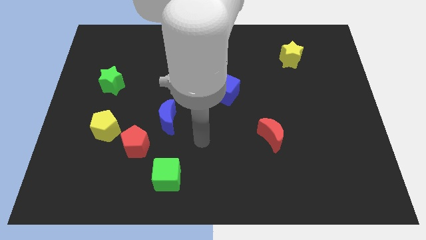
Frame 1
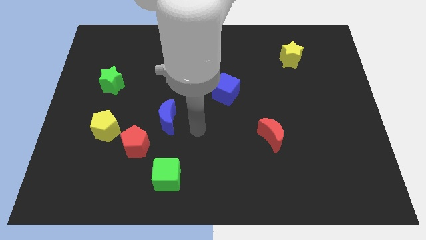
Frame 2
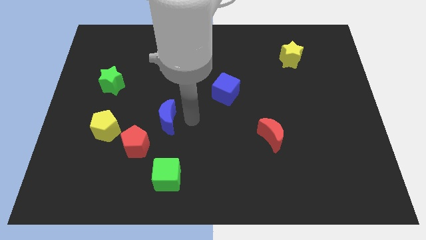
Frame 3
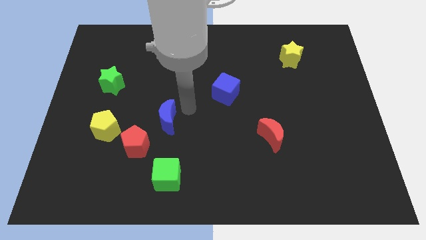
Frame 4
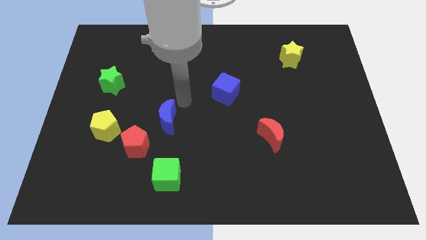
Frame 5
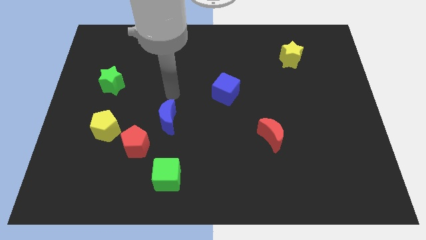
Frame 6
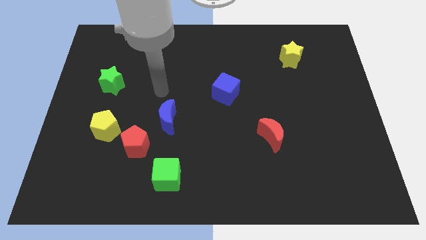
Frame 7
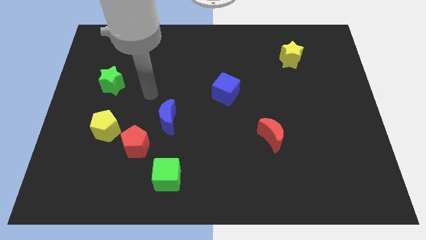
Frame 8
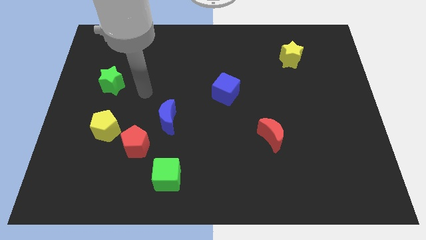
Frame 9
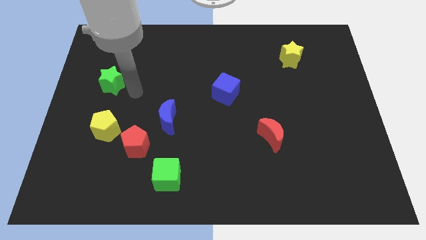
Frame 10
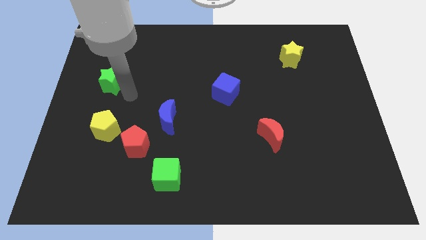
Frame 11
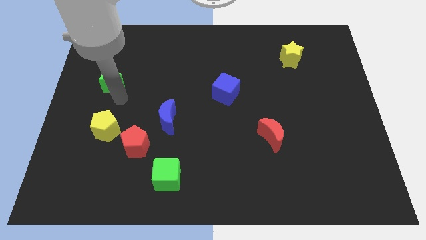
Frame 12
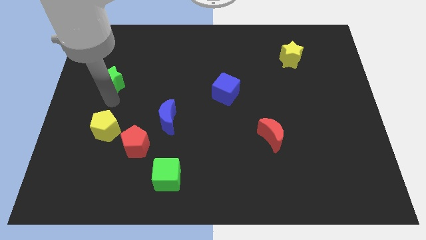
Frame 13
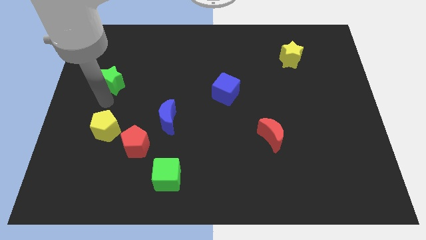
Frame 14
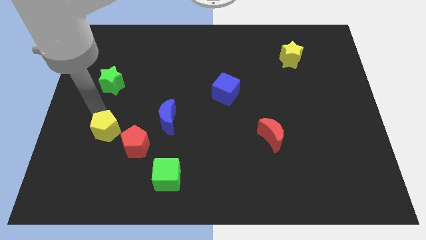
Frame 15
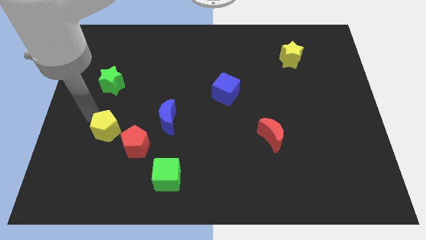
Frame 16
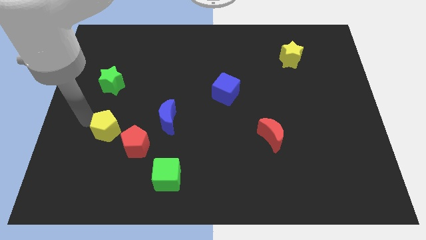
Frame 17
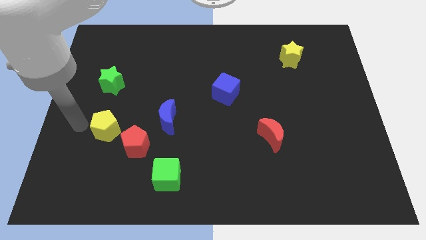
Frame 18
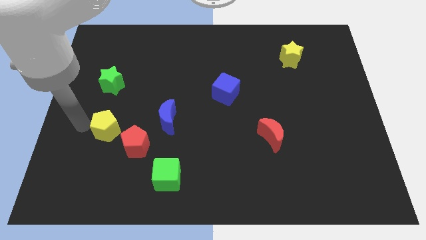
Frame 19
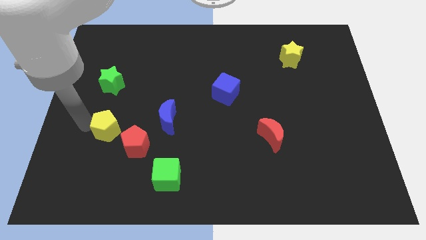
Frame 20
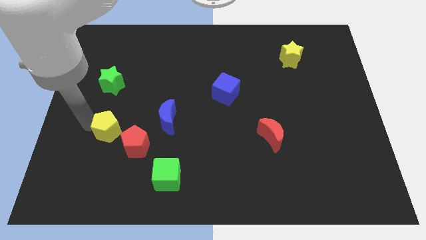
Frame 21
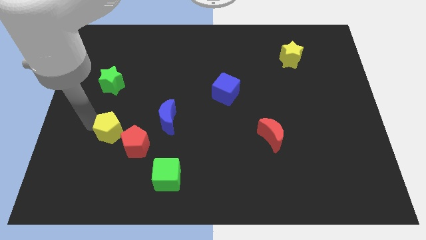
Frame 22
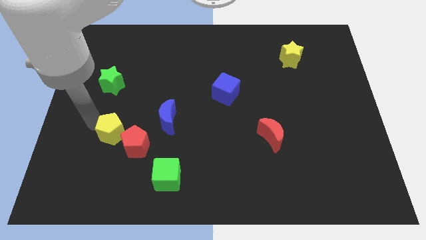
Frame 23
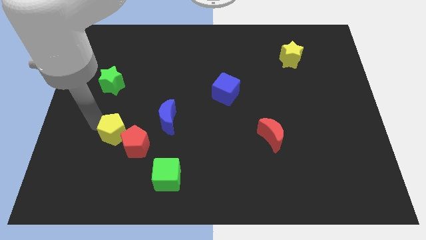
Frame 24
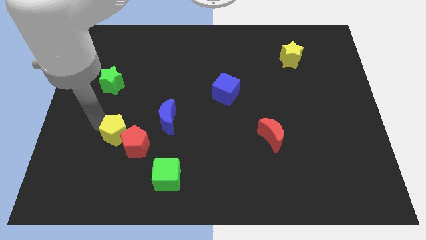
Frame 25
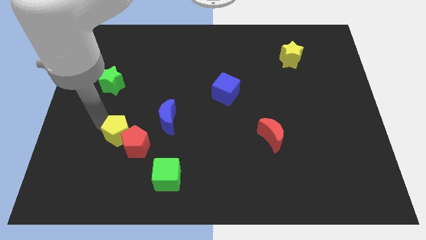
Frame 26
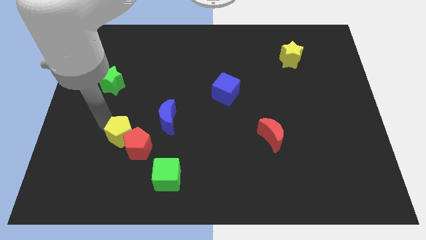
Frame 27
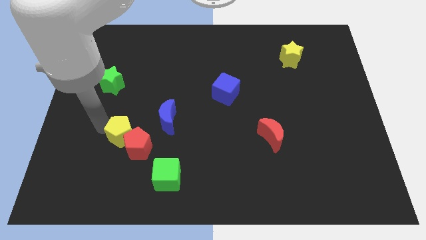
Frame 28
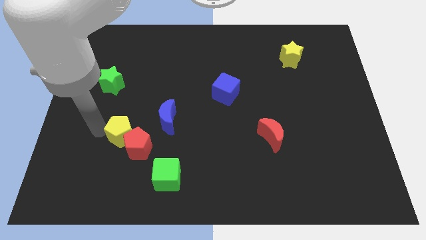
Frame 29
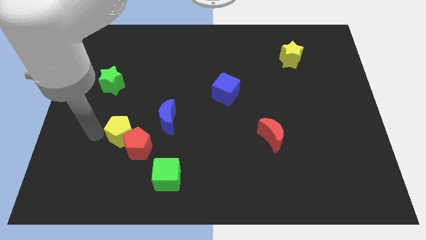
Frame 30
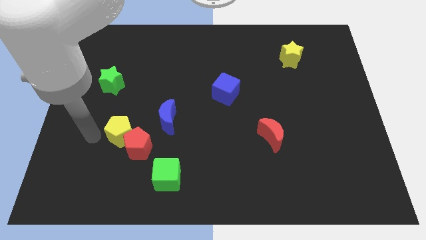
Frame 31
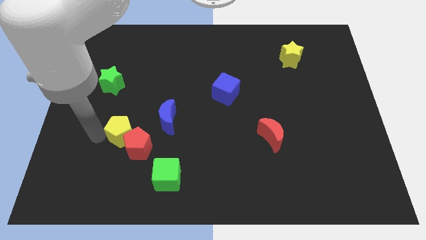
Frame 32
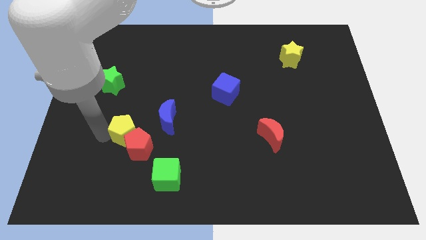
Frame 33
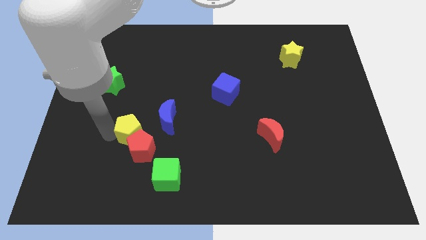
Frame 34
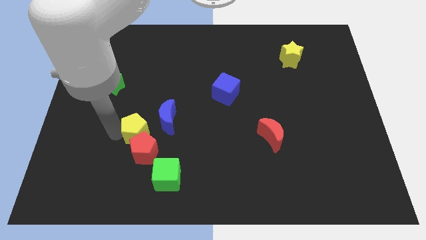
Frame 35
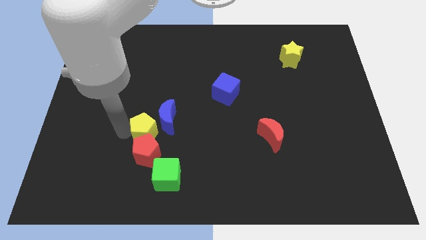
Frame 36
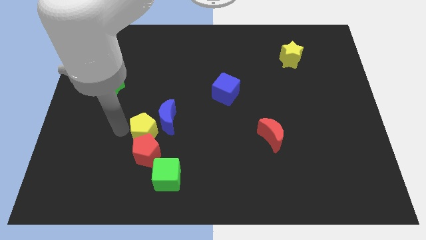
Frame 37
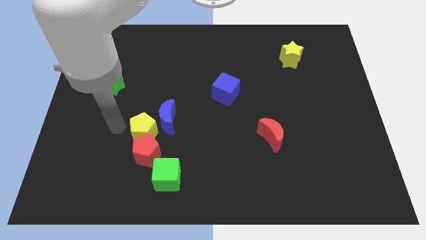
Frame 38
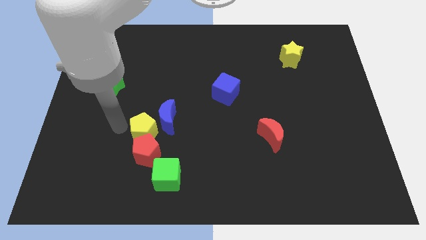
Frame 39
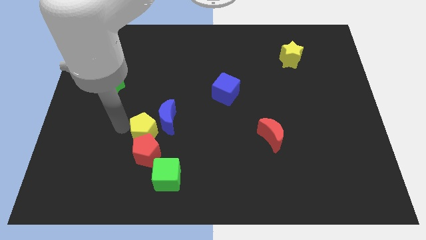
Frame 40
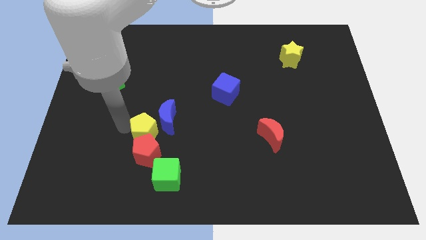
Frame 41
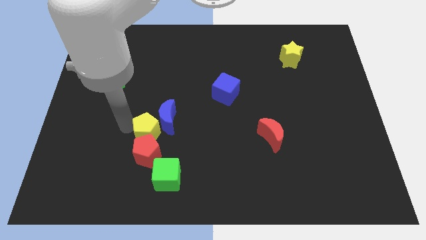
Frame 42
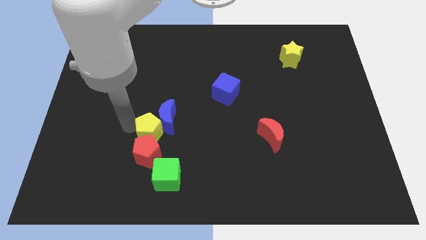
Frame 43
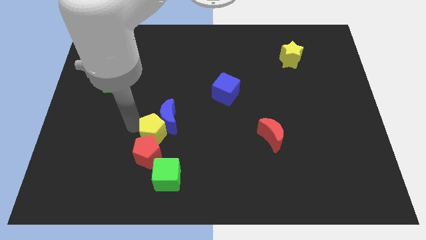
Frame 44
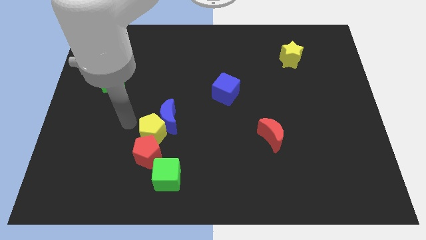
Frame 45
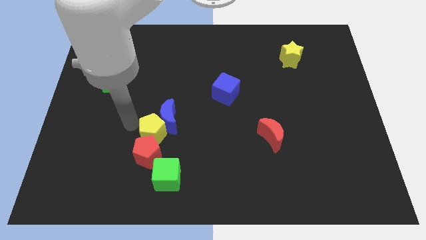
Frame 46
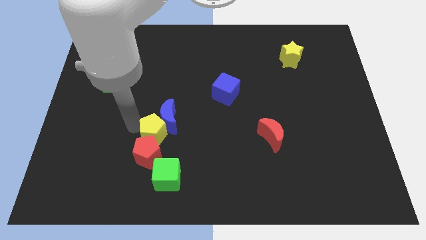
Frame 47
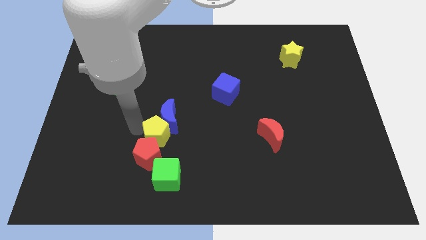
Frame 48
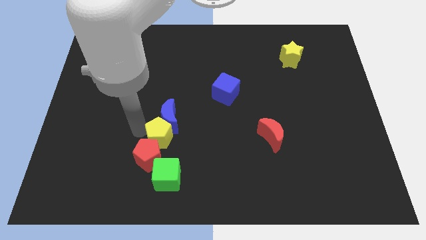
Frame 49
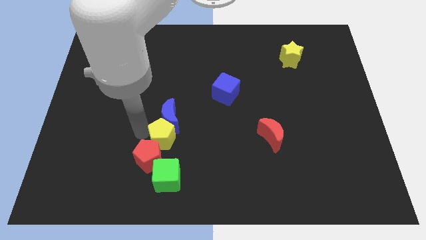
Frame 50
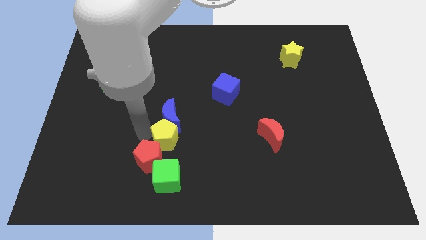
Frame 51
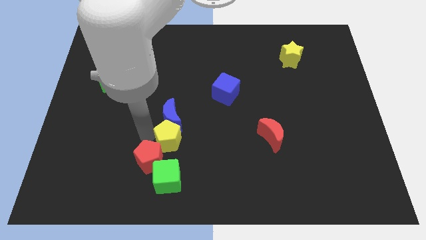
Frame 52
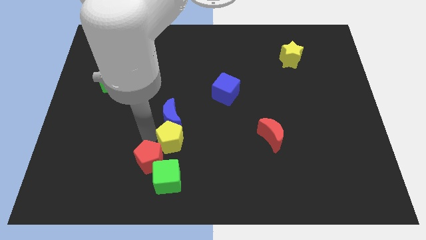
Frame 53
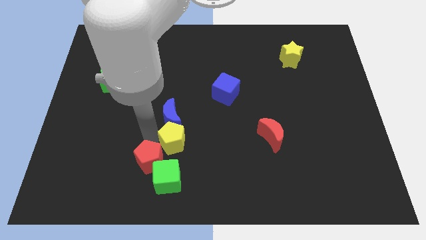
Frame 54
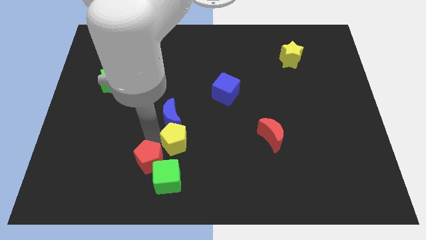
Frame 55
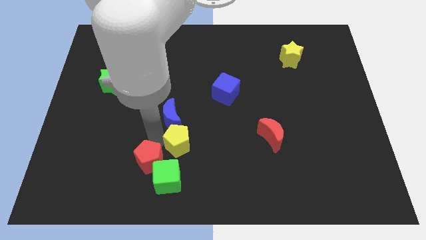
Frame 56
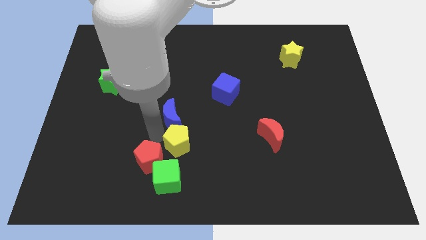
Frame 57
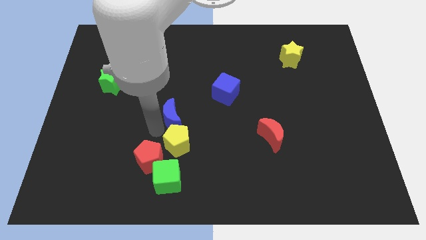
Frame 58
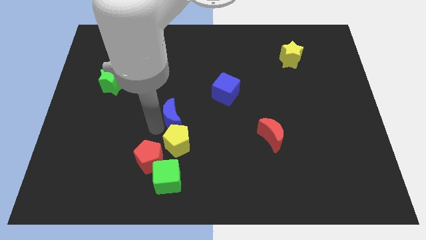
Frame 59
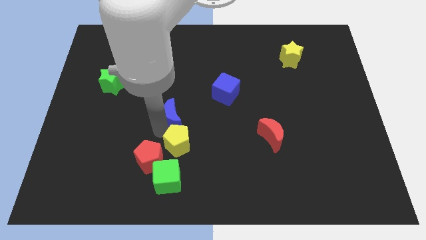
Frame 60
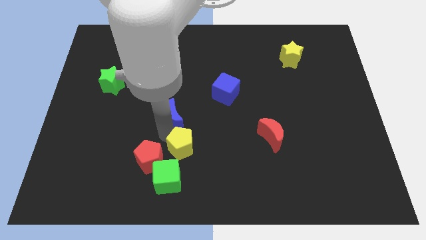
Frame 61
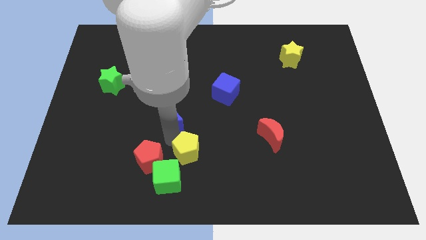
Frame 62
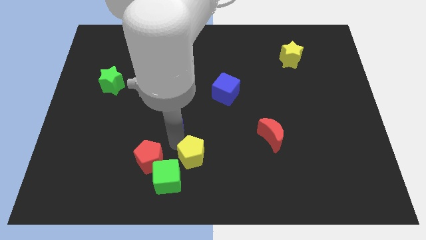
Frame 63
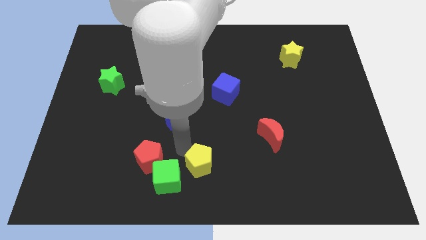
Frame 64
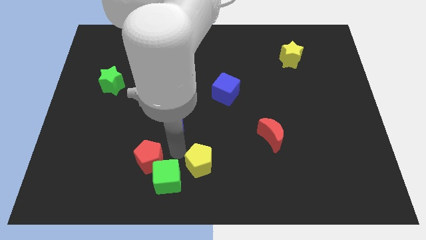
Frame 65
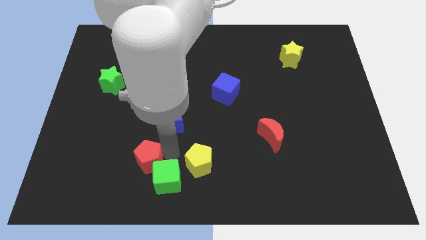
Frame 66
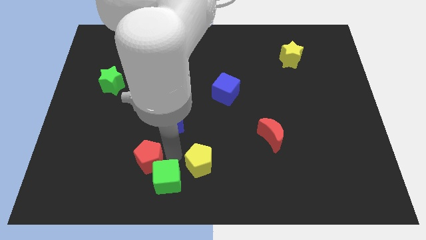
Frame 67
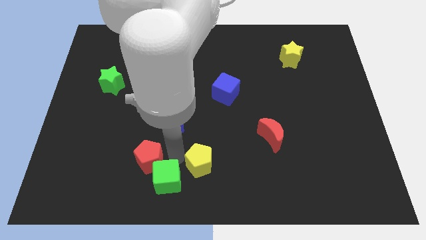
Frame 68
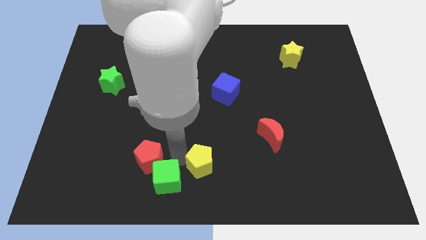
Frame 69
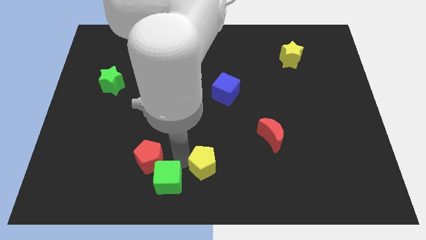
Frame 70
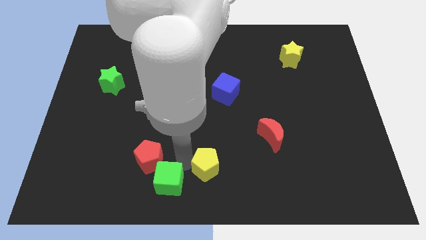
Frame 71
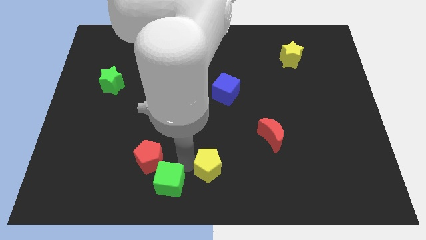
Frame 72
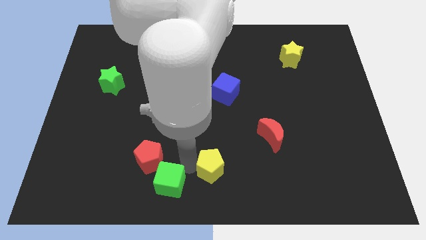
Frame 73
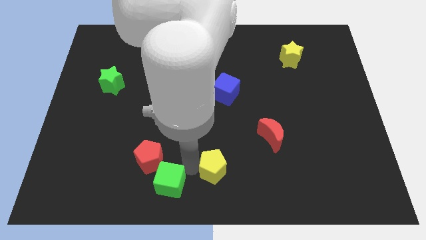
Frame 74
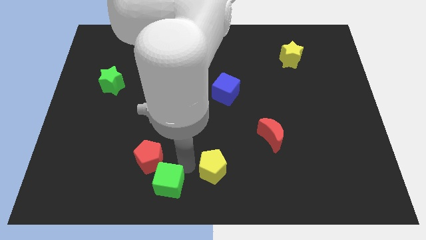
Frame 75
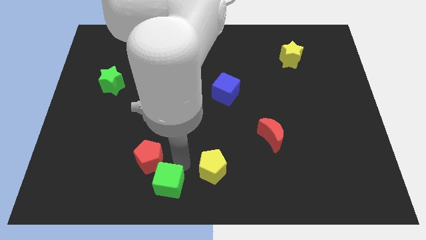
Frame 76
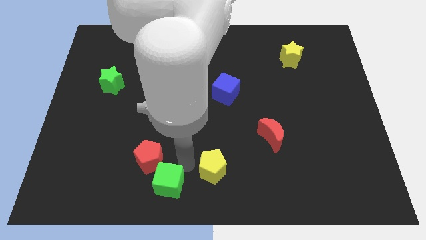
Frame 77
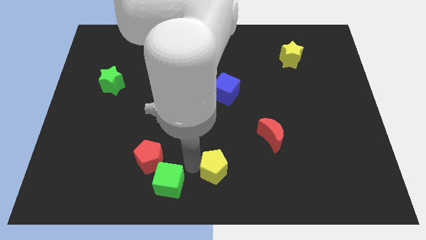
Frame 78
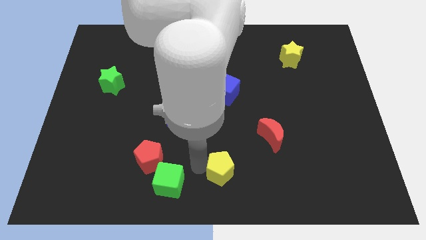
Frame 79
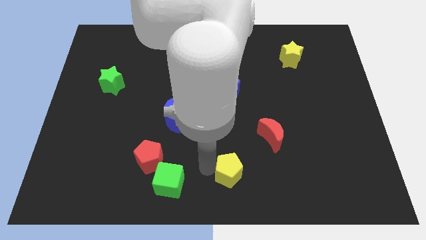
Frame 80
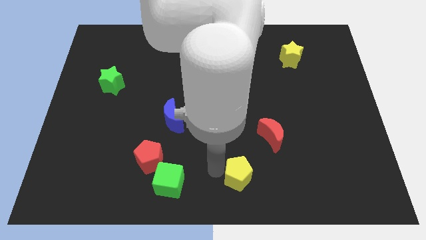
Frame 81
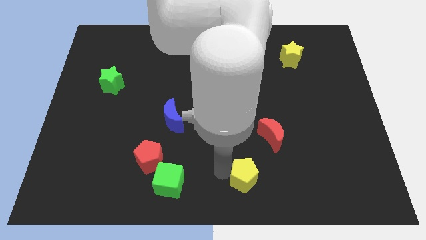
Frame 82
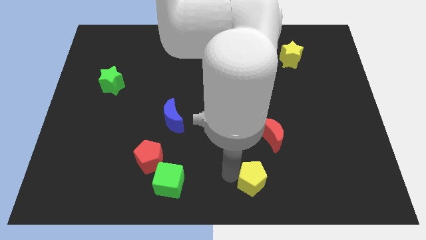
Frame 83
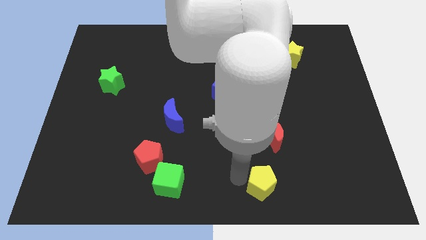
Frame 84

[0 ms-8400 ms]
move the yellow pentagon below the red moon
